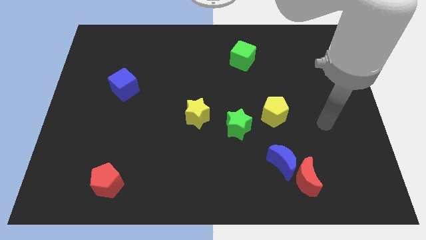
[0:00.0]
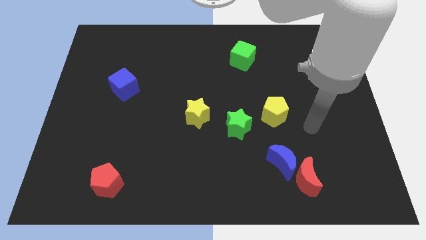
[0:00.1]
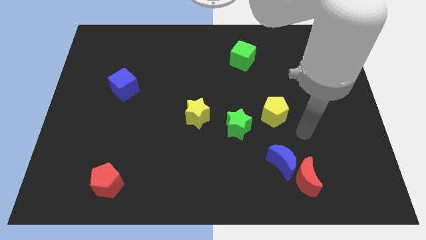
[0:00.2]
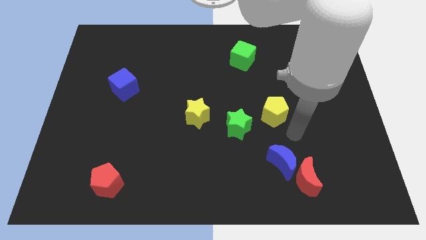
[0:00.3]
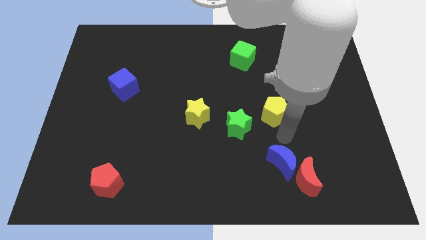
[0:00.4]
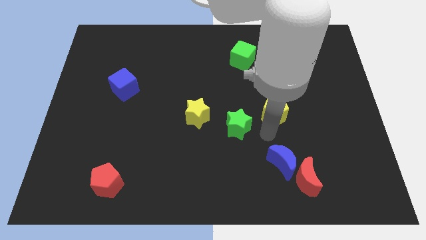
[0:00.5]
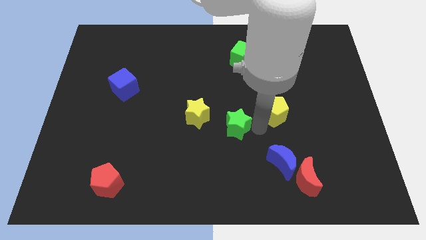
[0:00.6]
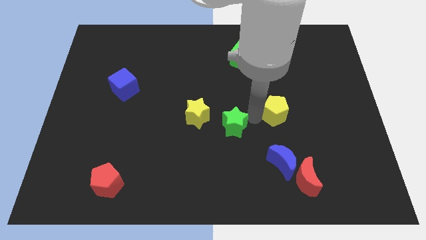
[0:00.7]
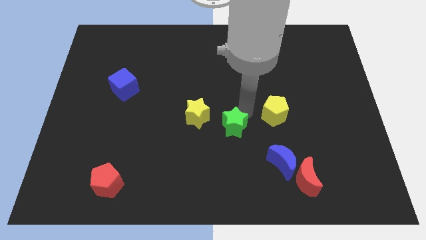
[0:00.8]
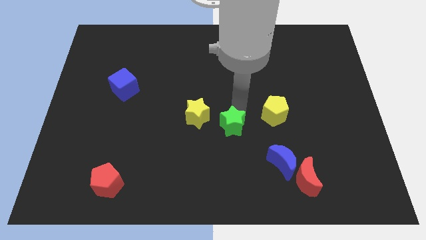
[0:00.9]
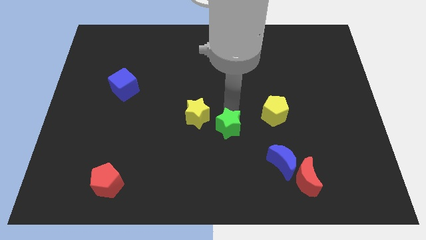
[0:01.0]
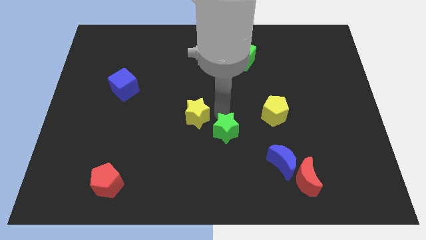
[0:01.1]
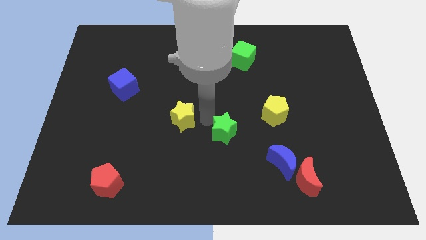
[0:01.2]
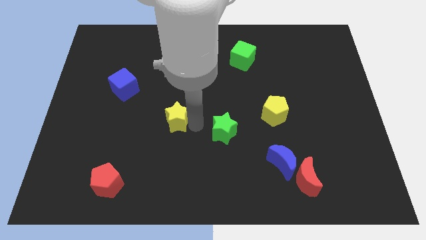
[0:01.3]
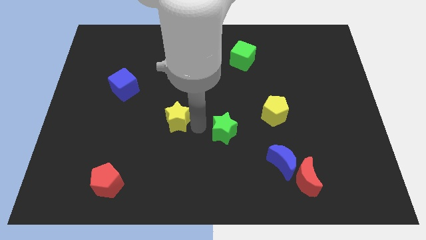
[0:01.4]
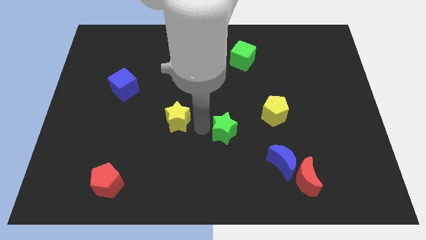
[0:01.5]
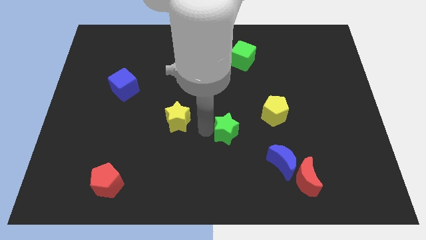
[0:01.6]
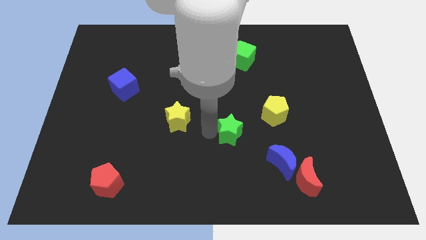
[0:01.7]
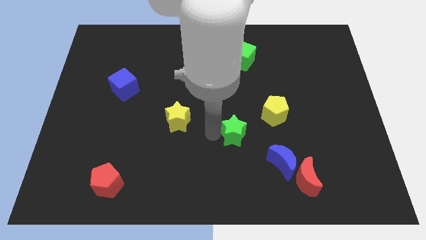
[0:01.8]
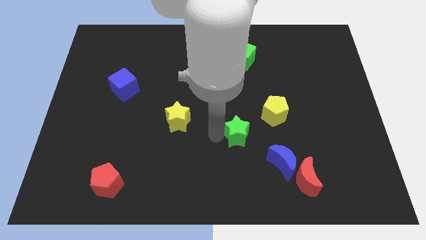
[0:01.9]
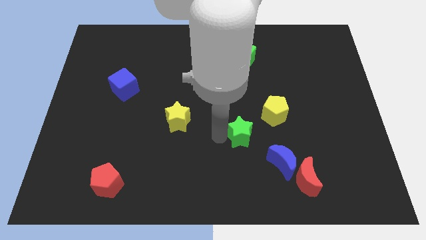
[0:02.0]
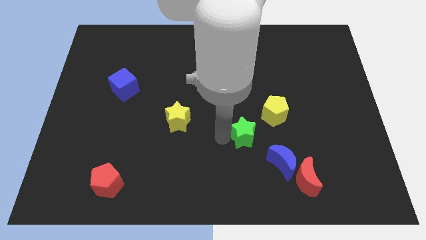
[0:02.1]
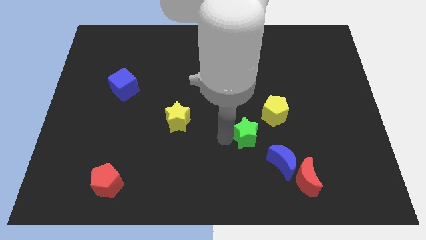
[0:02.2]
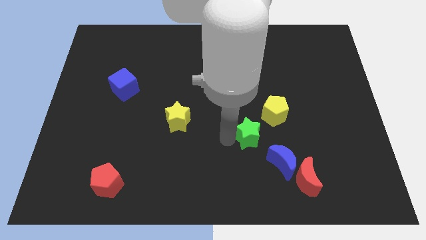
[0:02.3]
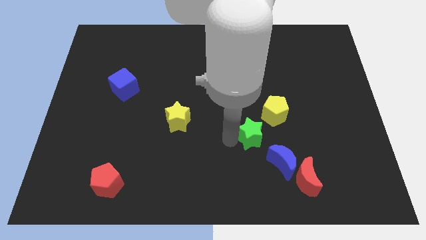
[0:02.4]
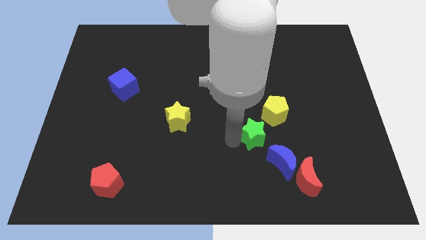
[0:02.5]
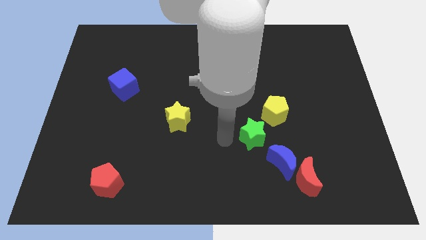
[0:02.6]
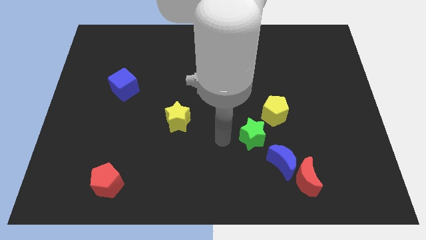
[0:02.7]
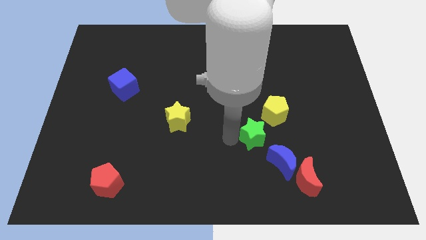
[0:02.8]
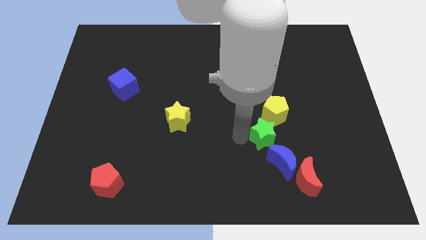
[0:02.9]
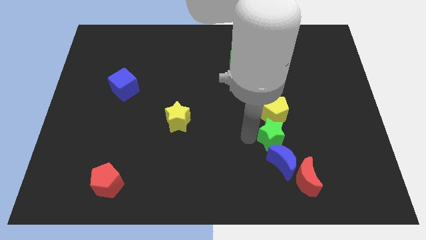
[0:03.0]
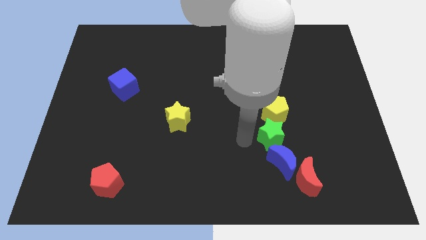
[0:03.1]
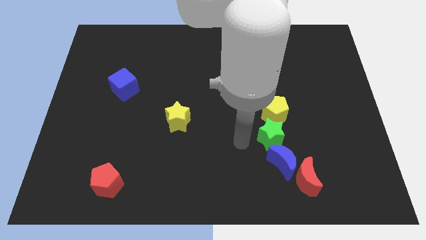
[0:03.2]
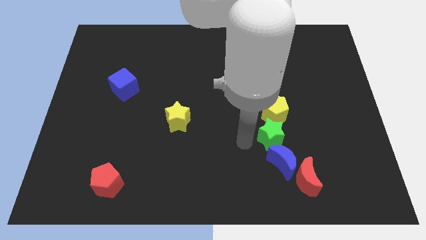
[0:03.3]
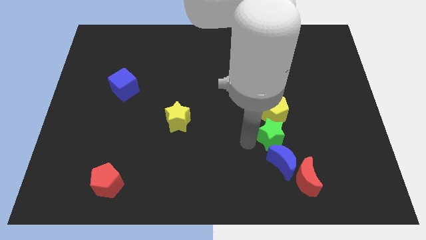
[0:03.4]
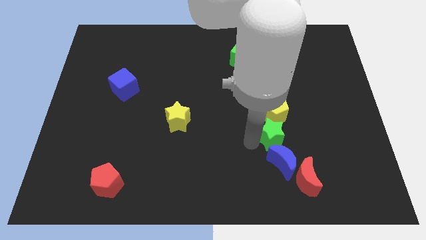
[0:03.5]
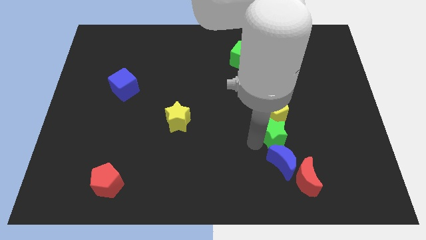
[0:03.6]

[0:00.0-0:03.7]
push the green star a bit right

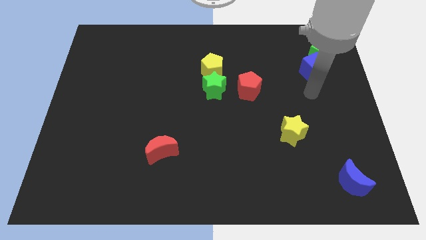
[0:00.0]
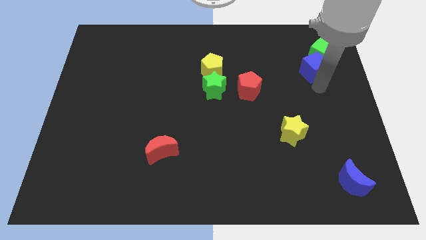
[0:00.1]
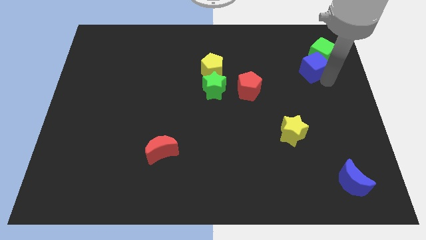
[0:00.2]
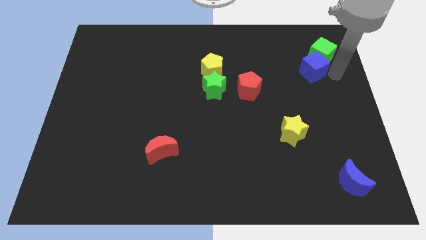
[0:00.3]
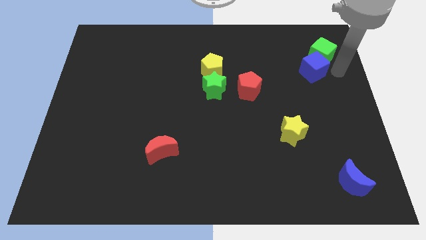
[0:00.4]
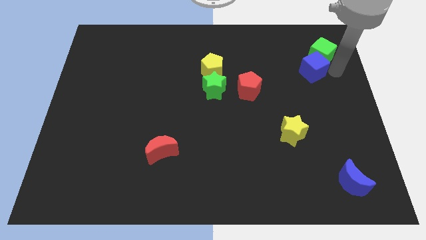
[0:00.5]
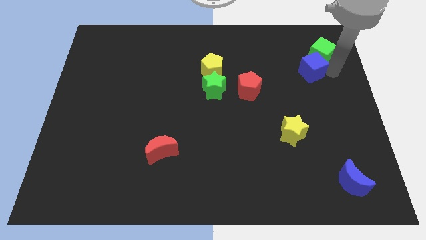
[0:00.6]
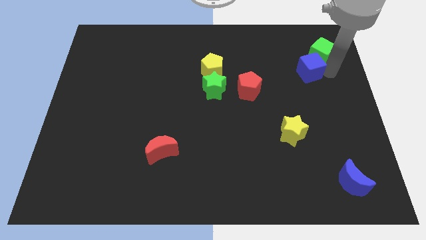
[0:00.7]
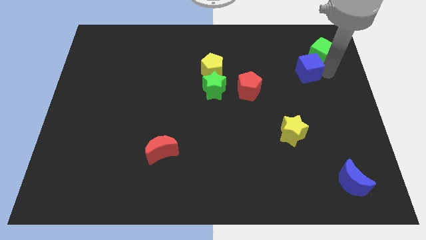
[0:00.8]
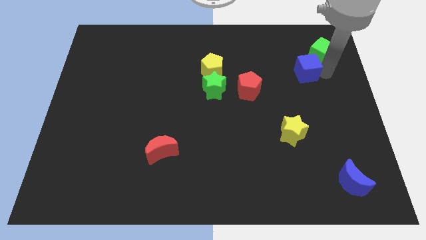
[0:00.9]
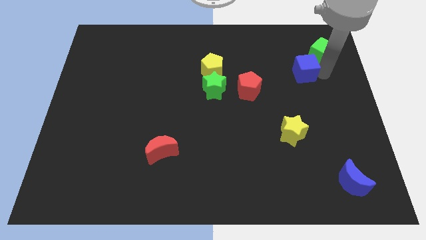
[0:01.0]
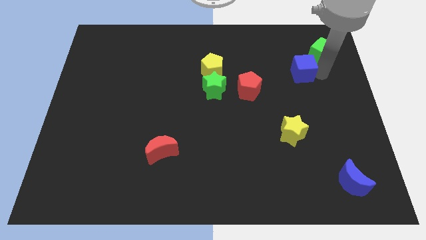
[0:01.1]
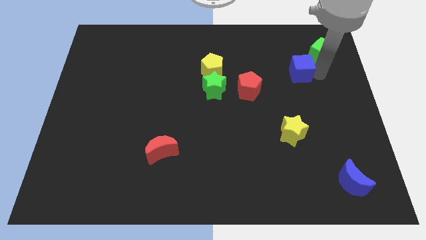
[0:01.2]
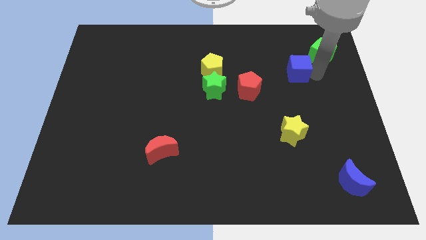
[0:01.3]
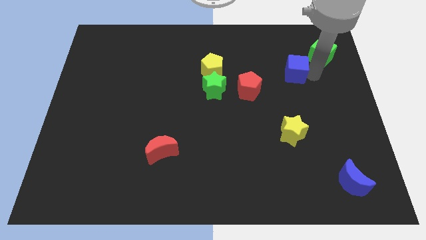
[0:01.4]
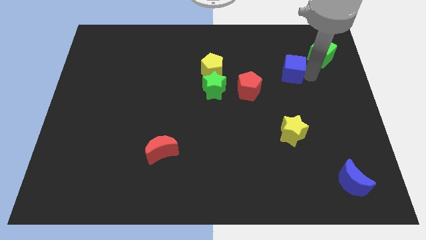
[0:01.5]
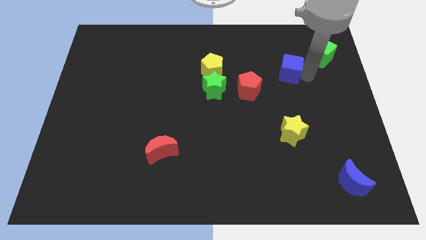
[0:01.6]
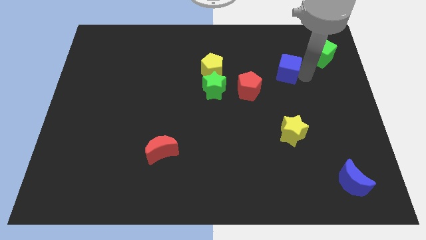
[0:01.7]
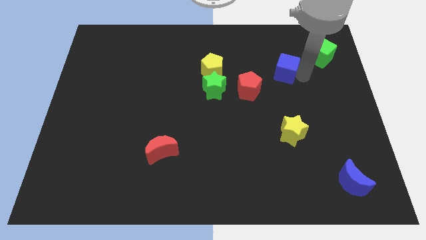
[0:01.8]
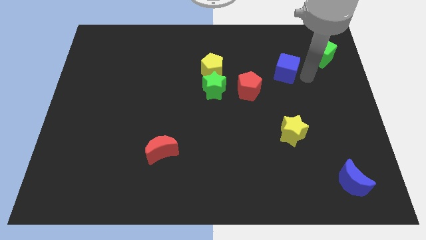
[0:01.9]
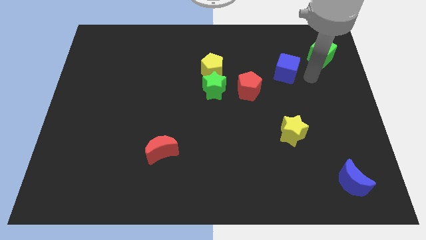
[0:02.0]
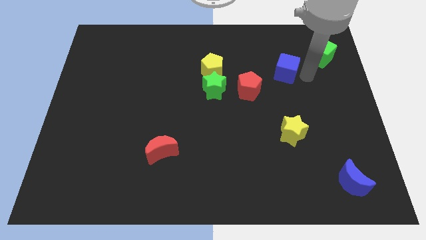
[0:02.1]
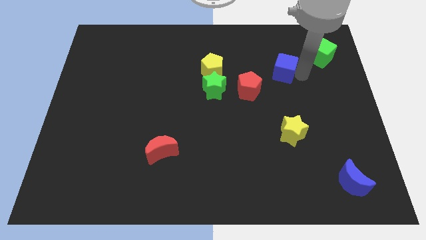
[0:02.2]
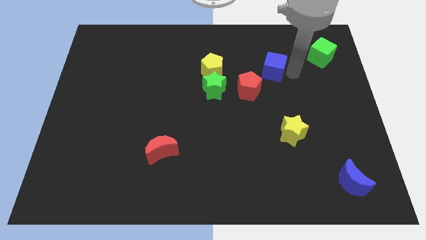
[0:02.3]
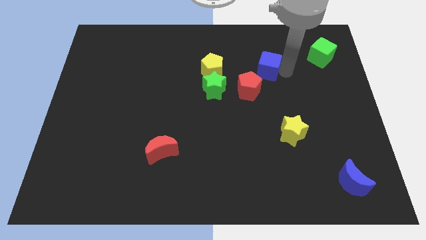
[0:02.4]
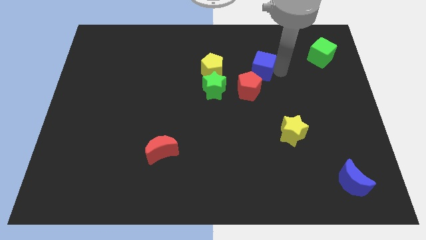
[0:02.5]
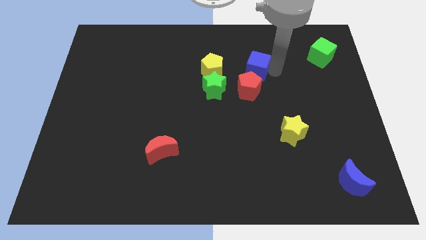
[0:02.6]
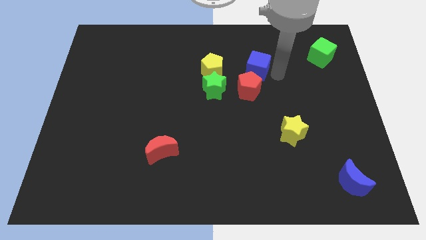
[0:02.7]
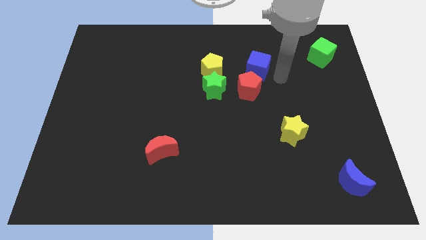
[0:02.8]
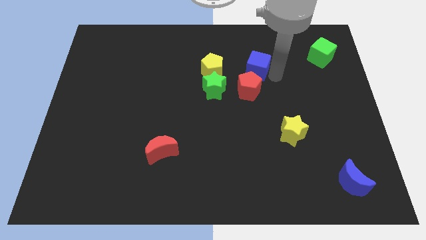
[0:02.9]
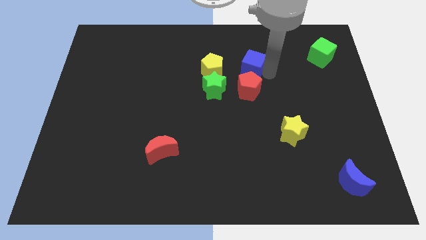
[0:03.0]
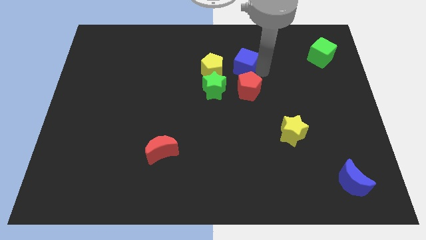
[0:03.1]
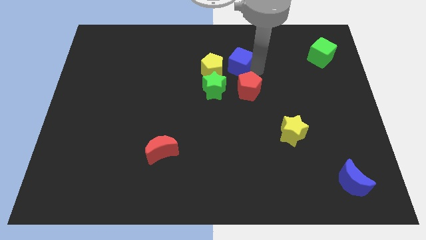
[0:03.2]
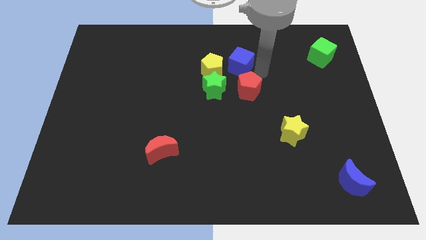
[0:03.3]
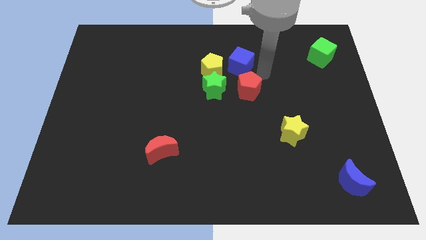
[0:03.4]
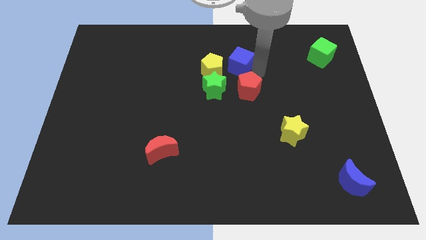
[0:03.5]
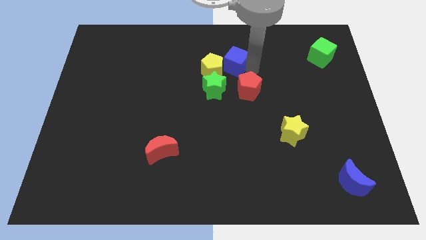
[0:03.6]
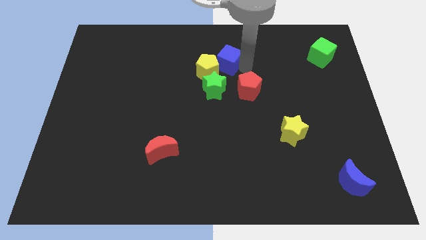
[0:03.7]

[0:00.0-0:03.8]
push the blue cube to the left

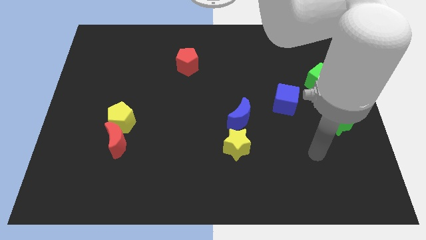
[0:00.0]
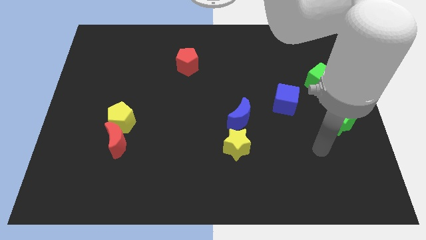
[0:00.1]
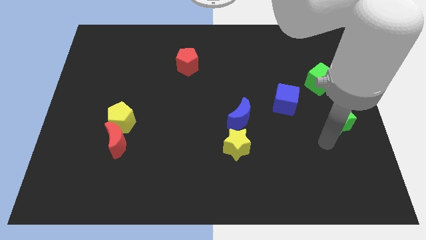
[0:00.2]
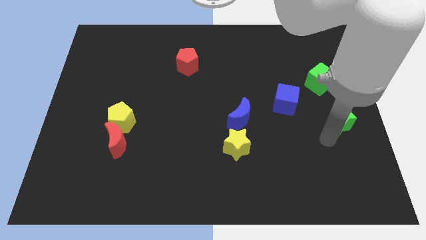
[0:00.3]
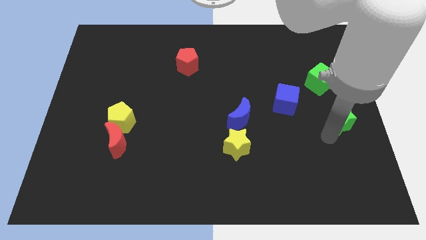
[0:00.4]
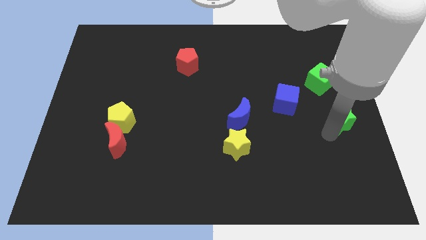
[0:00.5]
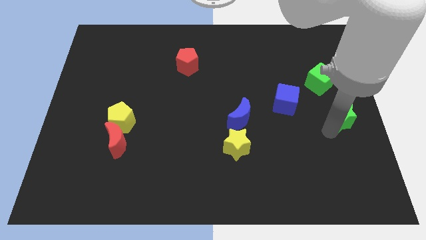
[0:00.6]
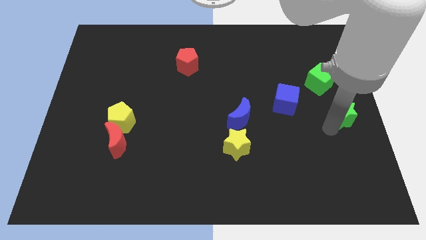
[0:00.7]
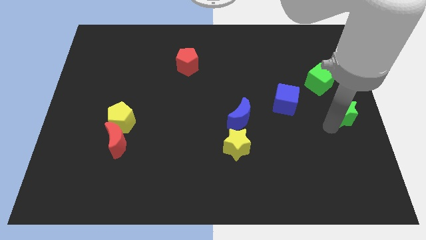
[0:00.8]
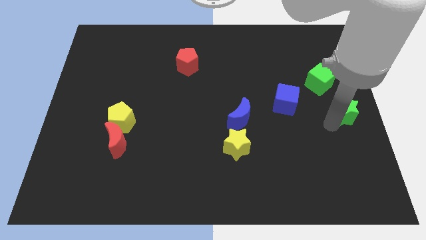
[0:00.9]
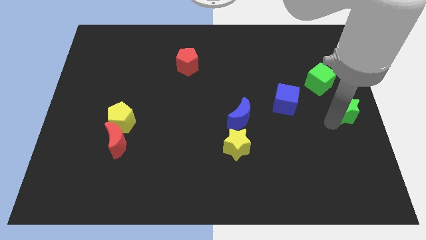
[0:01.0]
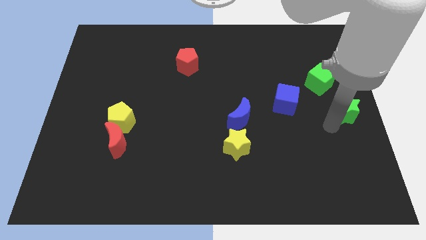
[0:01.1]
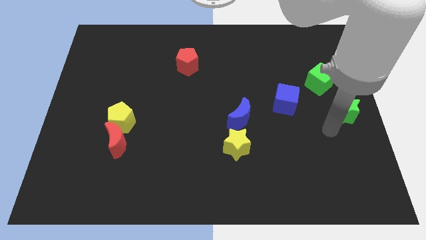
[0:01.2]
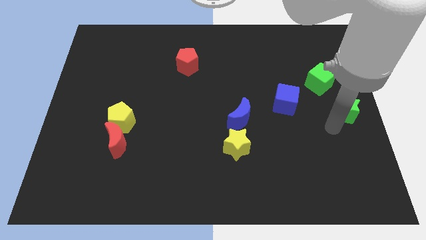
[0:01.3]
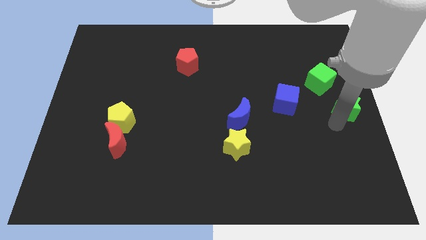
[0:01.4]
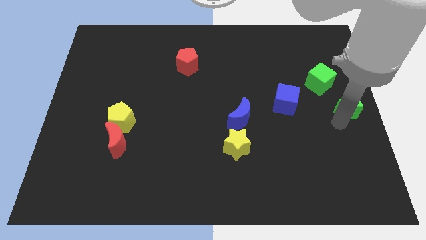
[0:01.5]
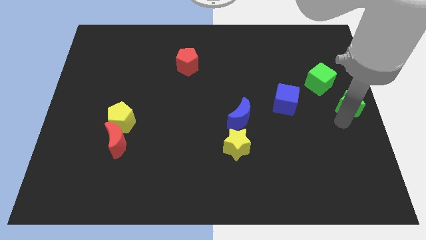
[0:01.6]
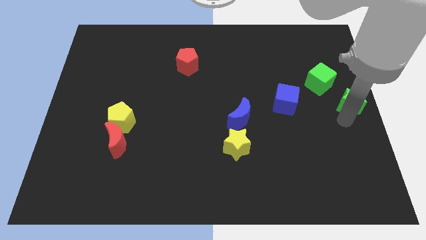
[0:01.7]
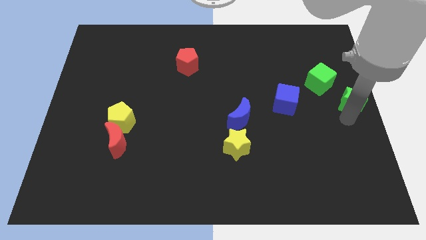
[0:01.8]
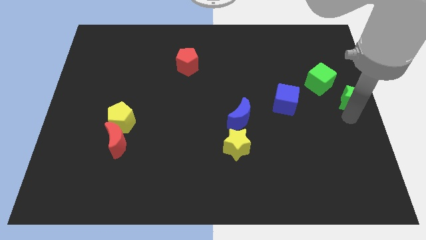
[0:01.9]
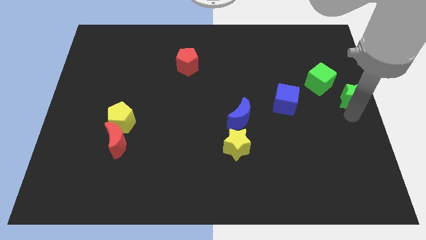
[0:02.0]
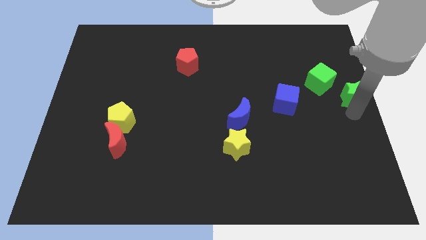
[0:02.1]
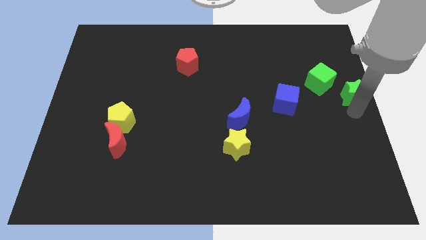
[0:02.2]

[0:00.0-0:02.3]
move the green star somewhat up
